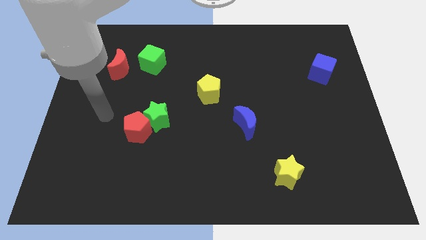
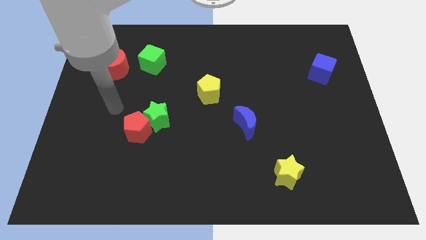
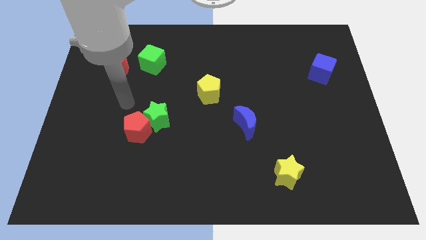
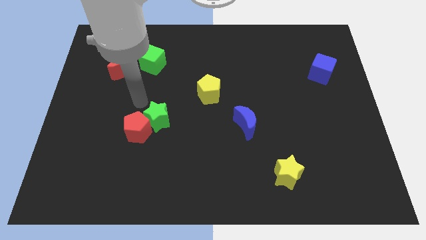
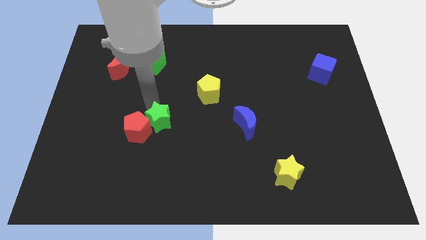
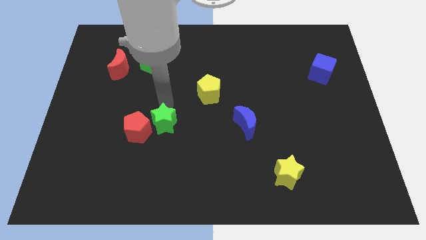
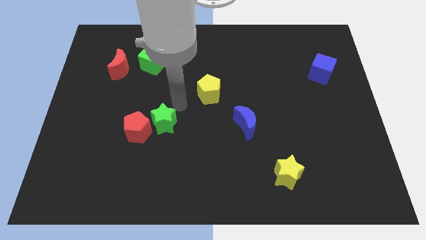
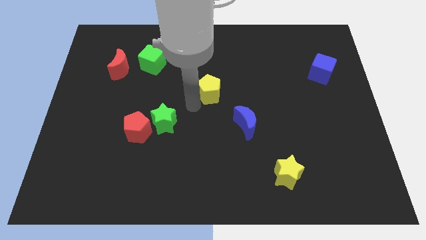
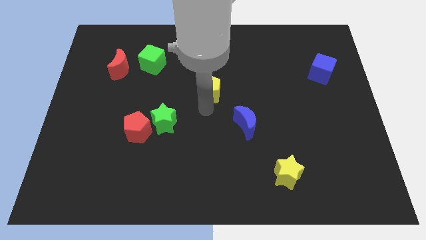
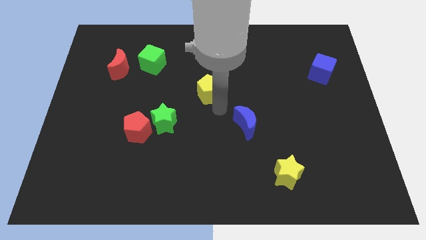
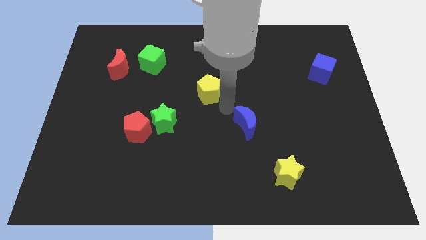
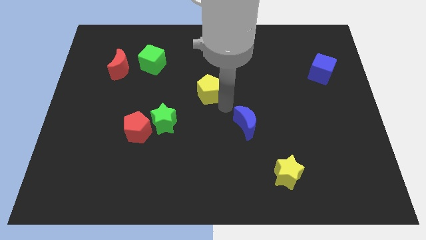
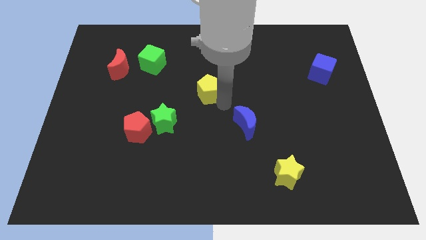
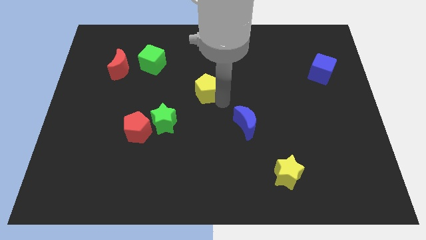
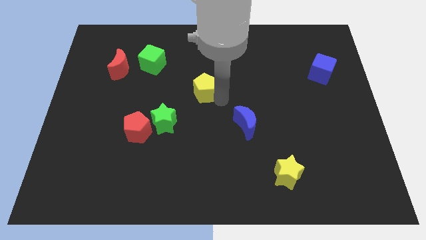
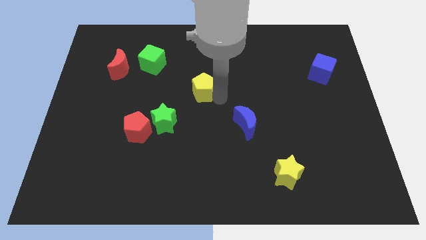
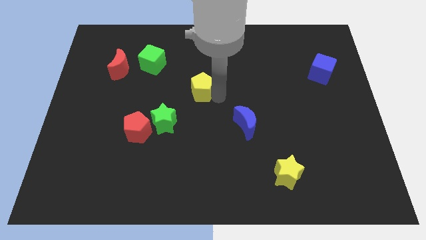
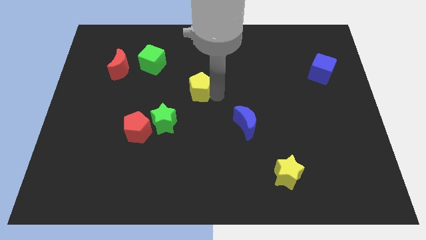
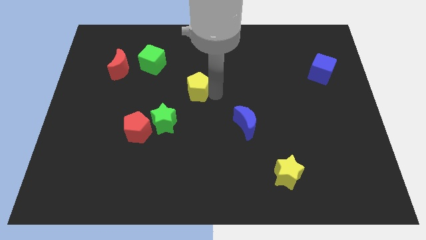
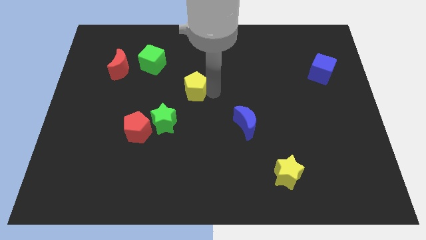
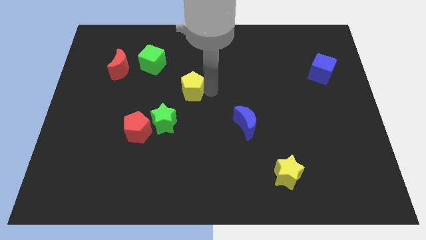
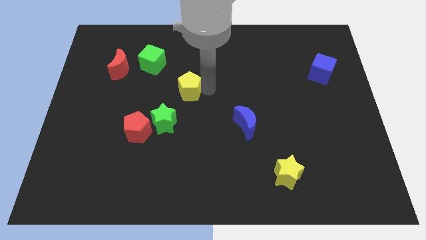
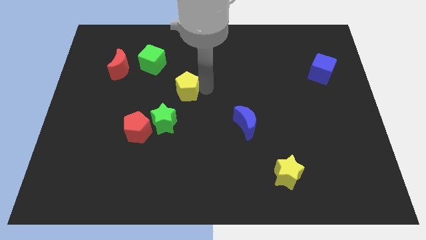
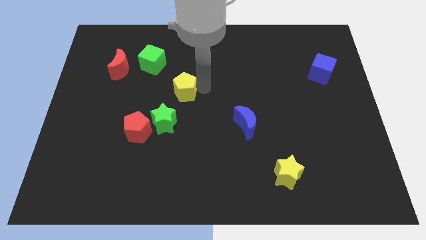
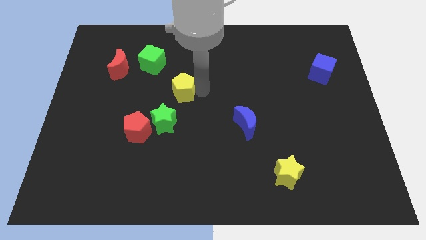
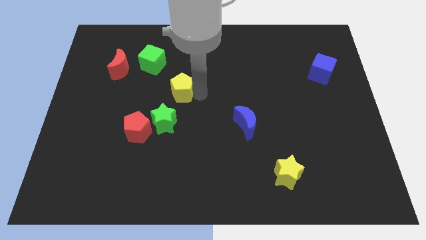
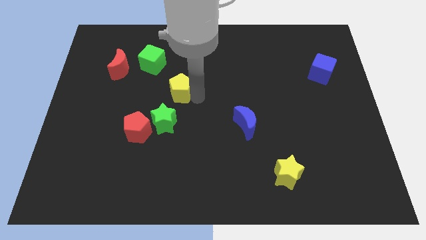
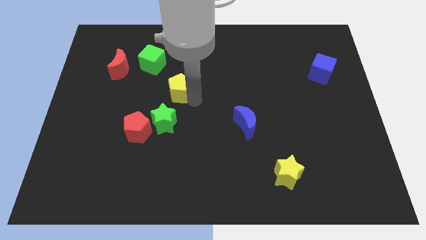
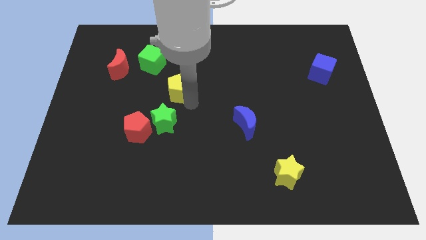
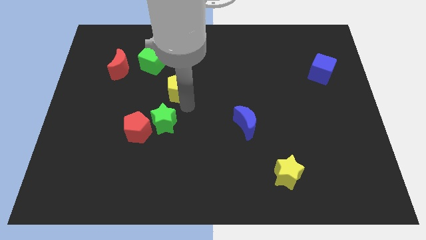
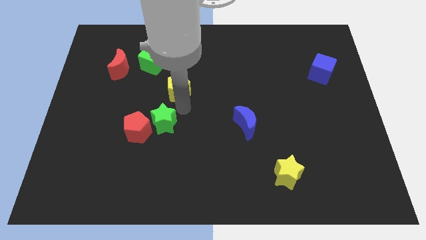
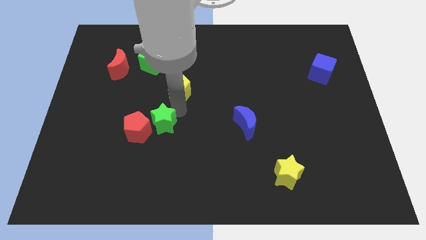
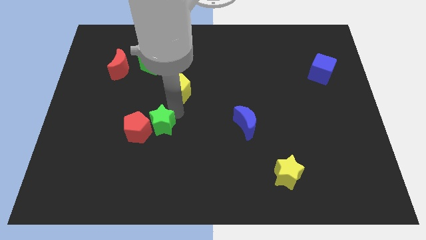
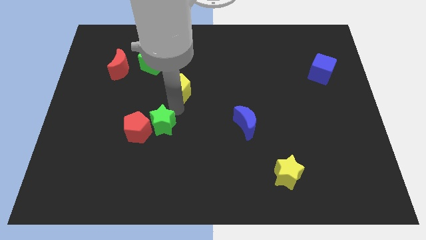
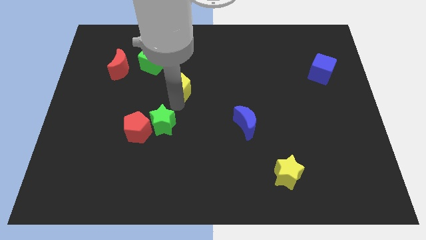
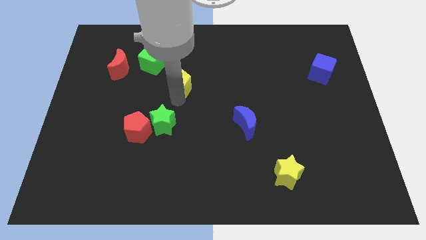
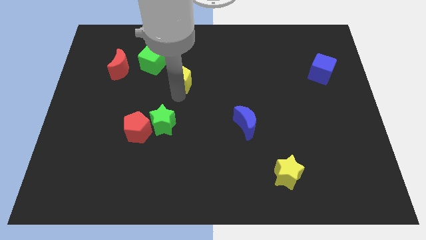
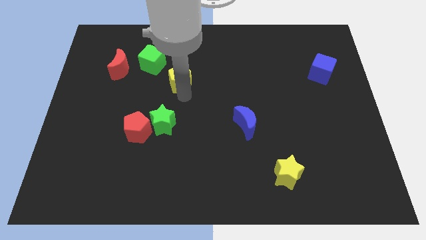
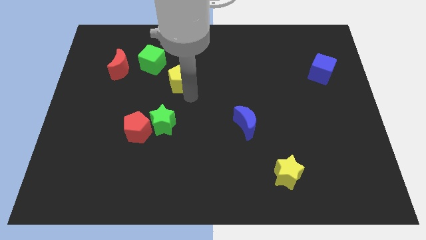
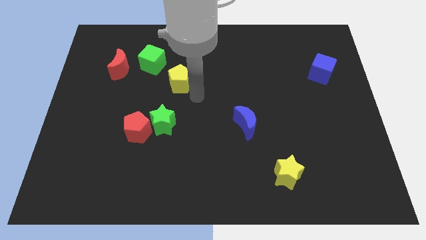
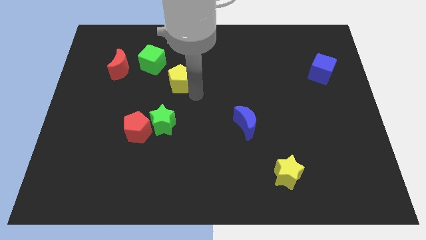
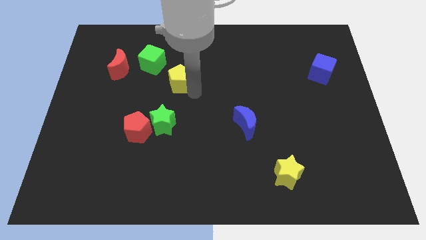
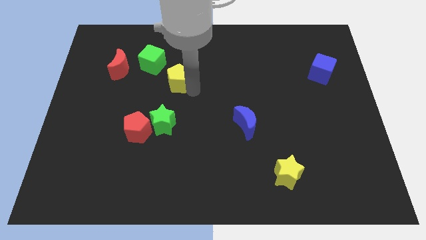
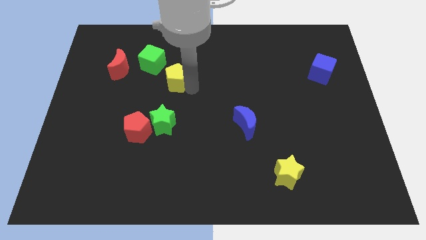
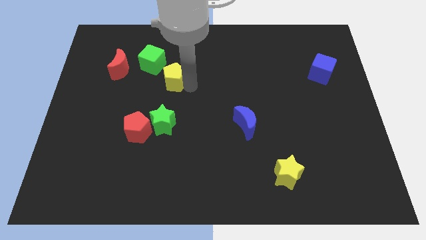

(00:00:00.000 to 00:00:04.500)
push the yellow pentagon to the right of the red moon

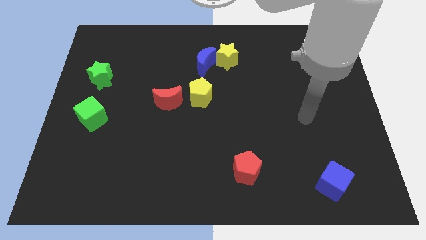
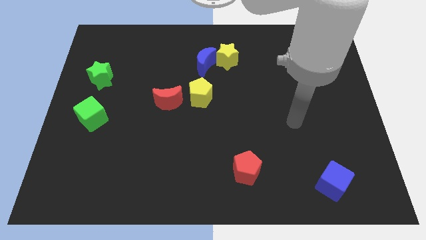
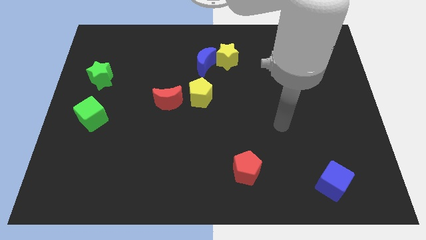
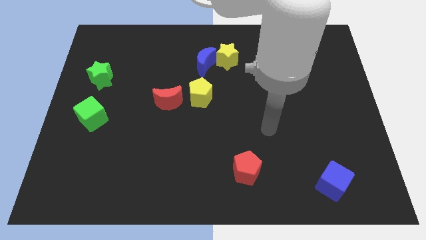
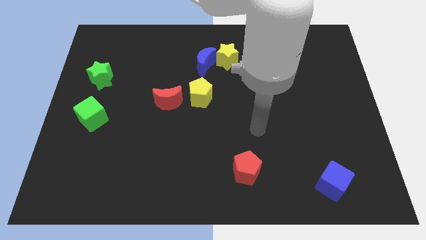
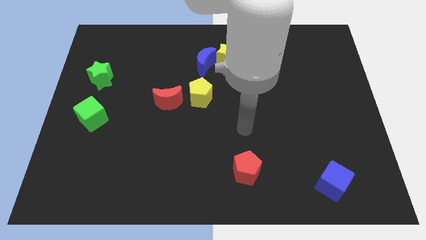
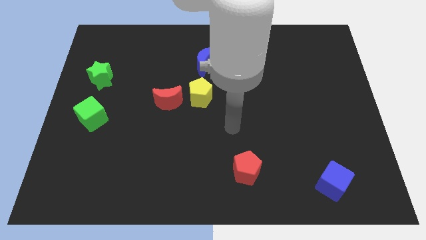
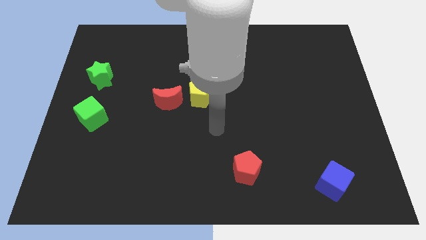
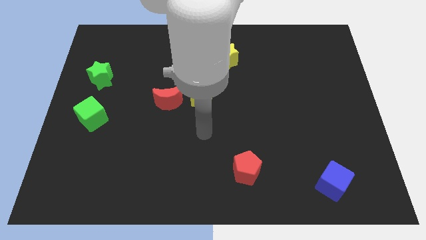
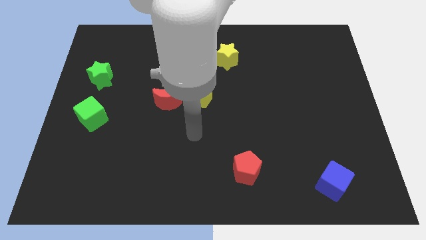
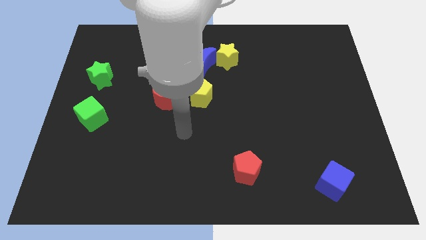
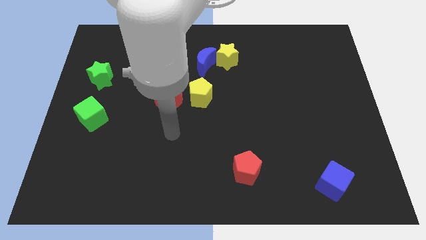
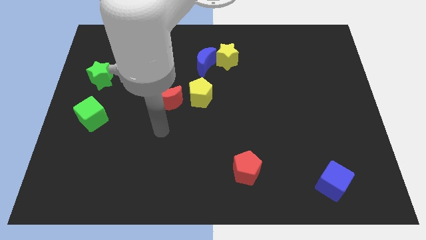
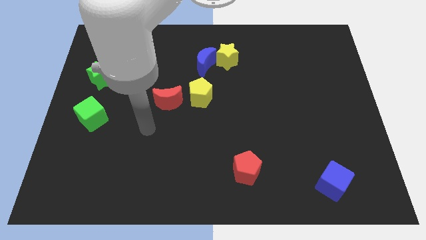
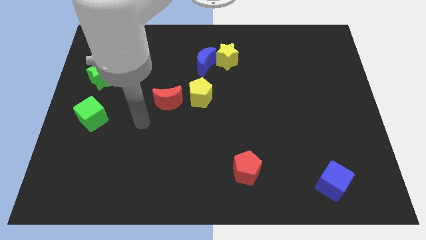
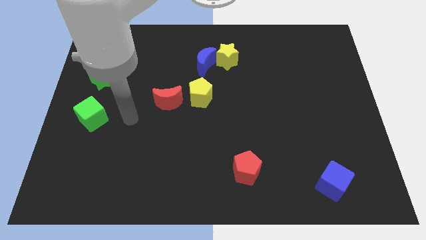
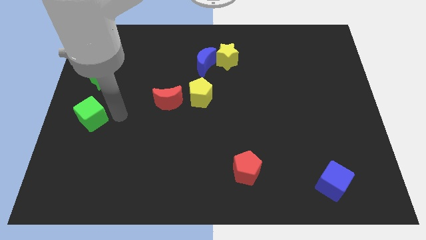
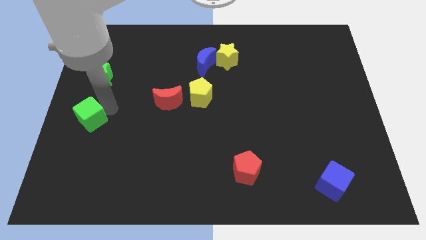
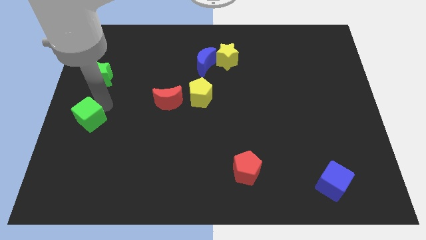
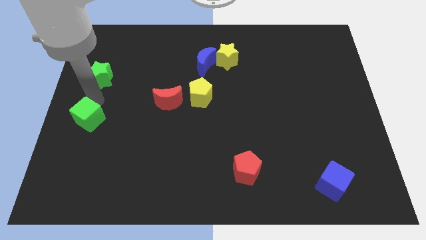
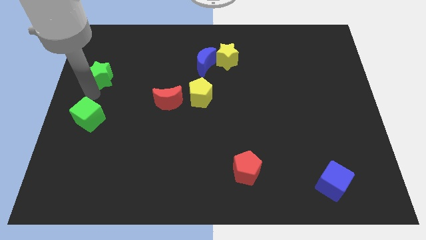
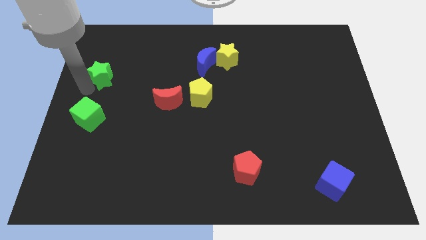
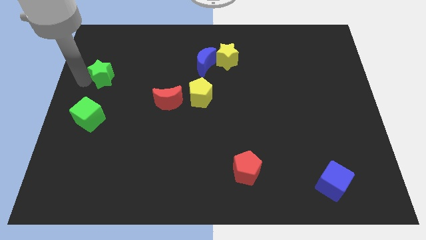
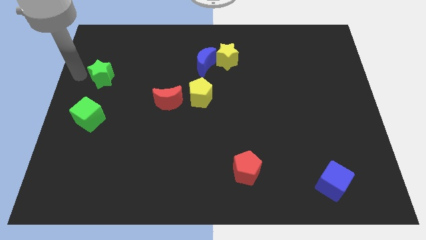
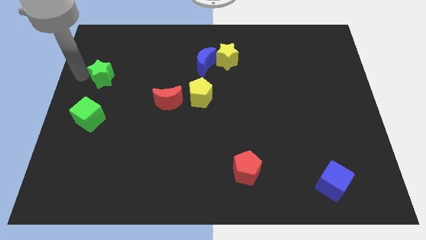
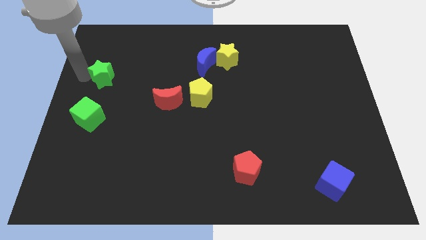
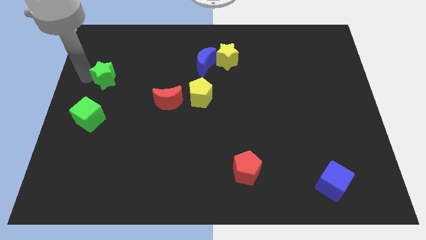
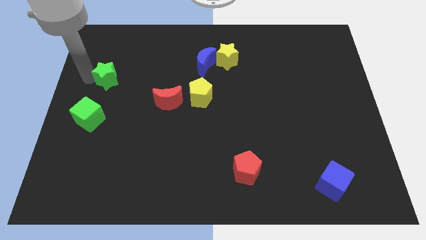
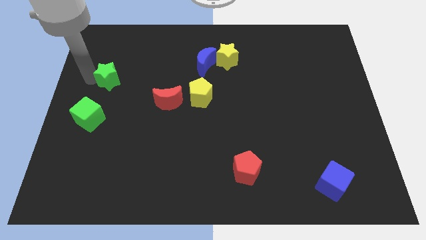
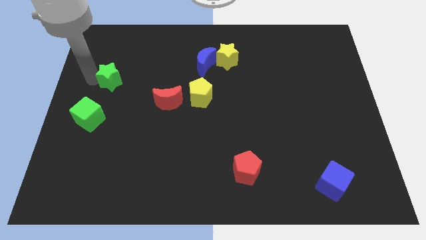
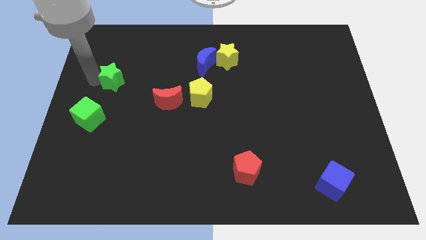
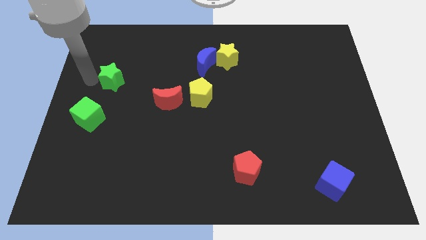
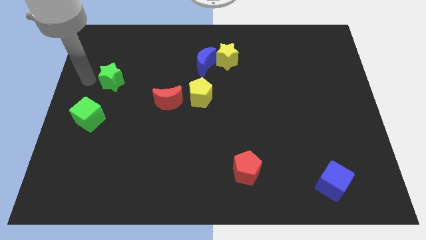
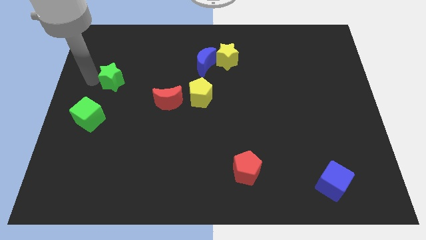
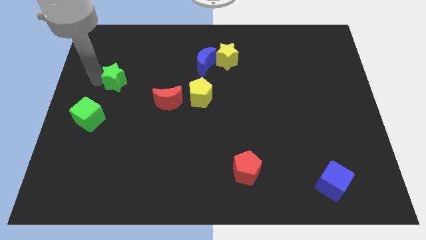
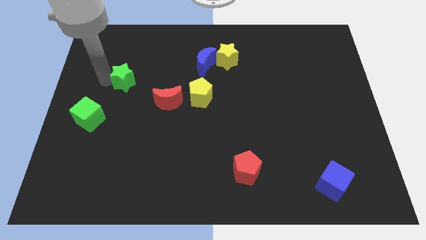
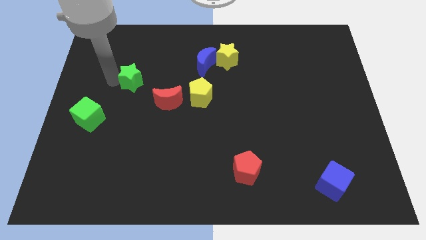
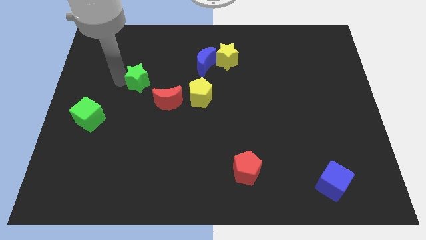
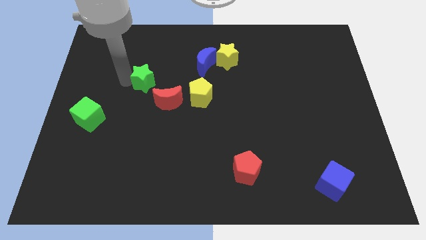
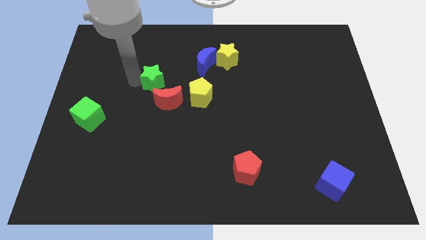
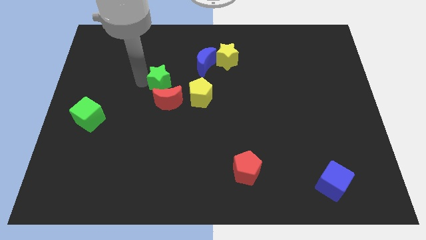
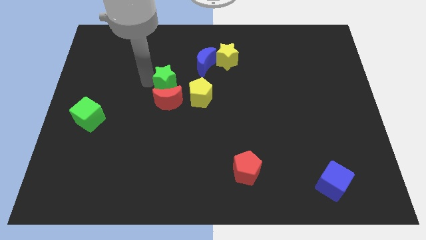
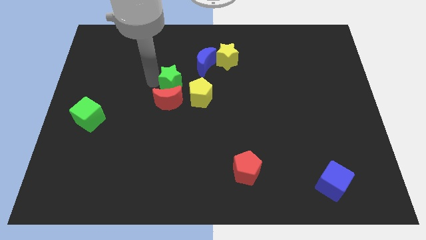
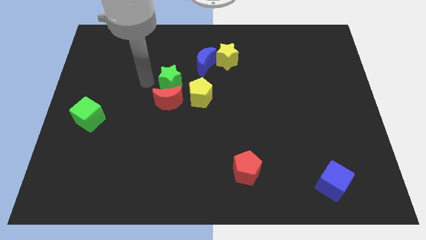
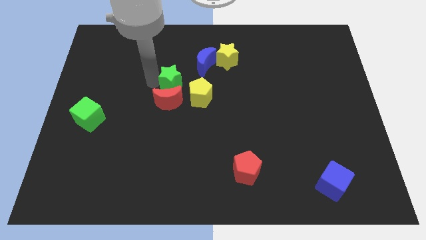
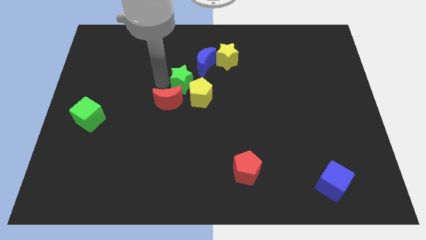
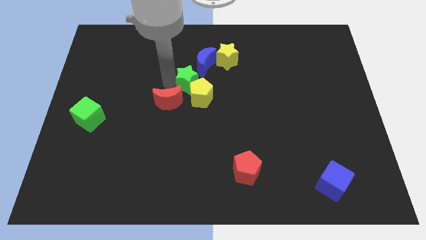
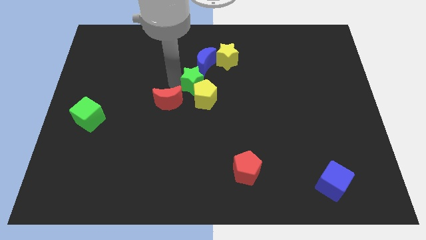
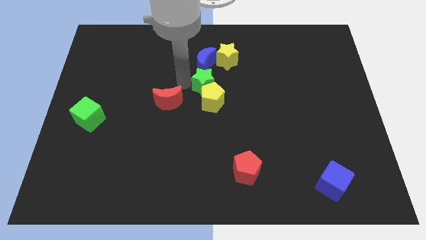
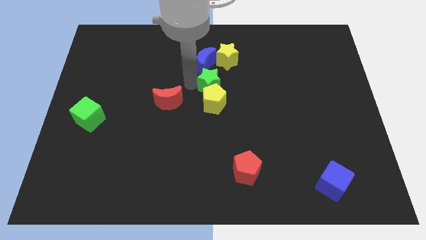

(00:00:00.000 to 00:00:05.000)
slide the green star to the bottom side of the yellow star
